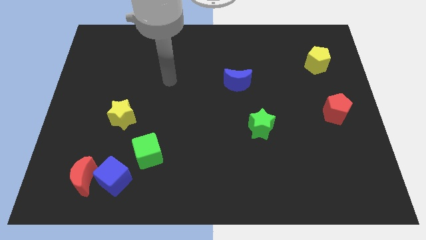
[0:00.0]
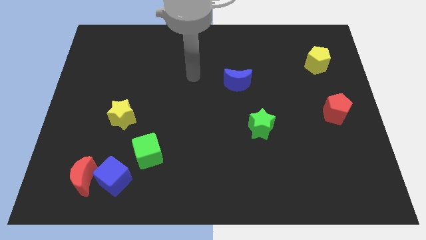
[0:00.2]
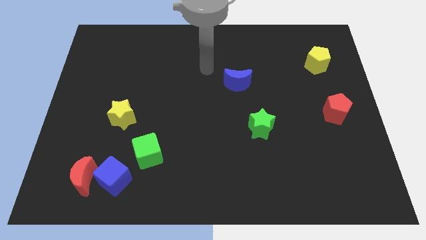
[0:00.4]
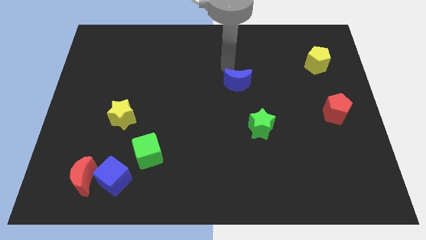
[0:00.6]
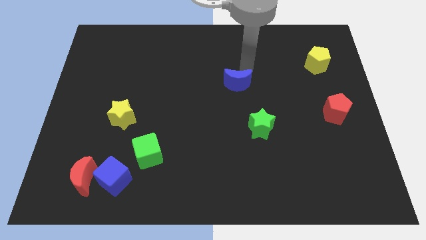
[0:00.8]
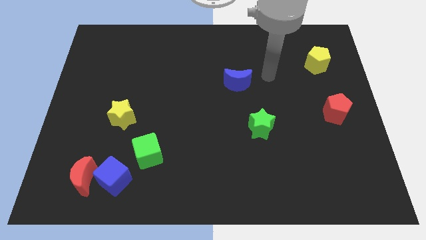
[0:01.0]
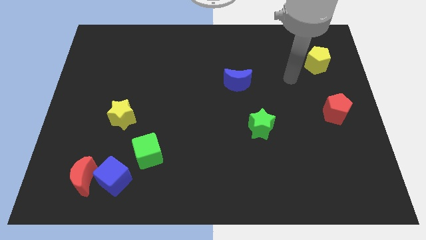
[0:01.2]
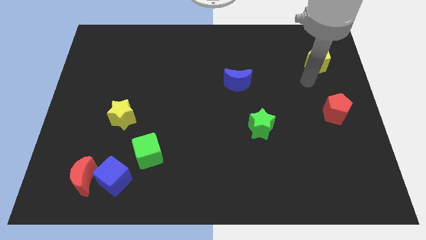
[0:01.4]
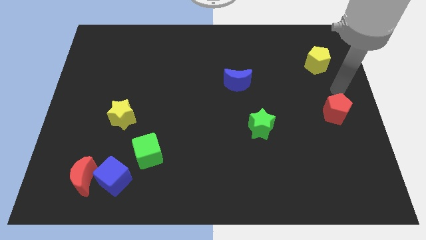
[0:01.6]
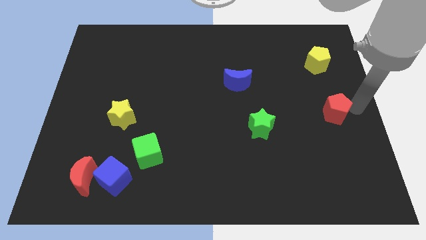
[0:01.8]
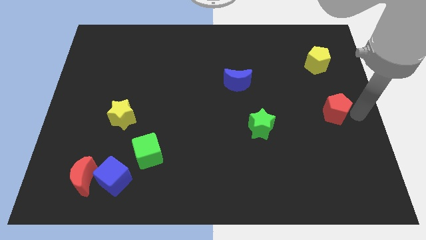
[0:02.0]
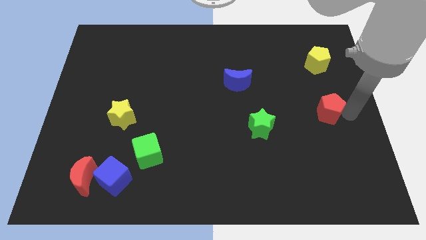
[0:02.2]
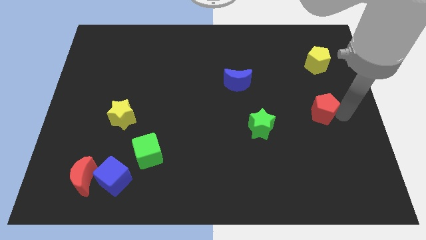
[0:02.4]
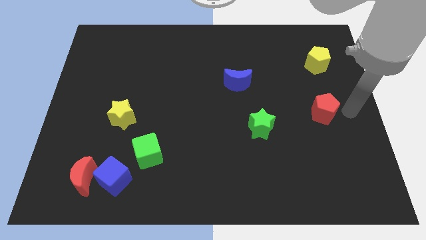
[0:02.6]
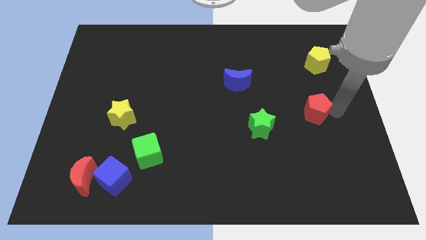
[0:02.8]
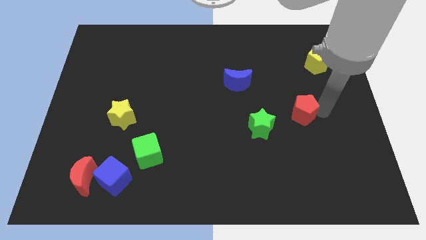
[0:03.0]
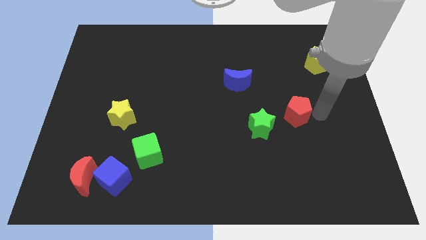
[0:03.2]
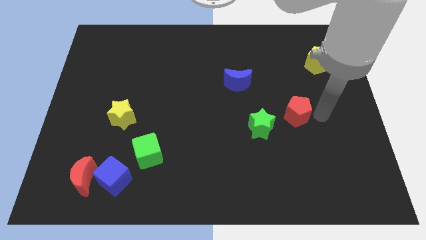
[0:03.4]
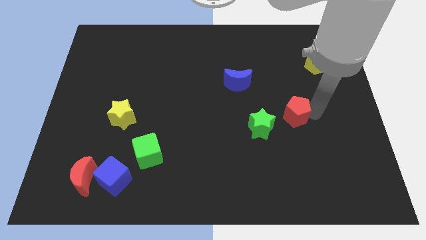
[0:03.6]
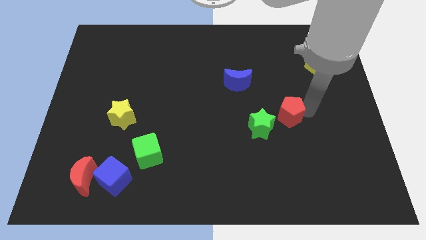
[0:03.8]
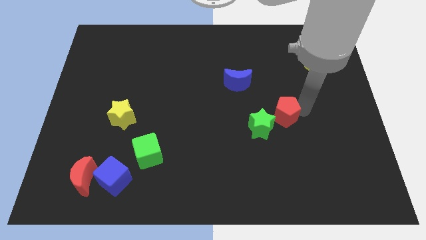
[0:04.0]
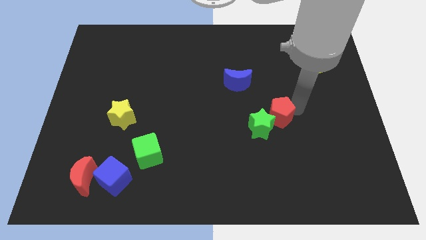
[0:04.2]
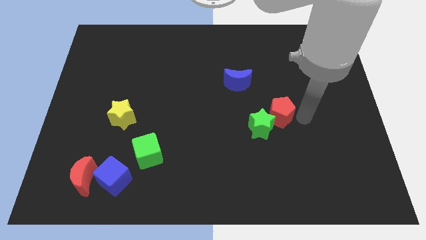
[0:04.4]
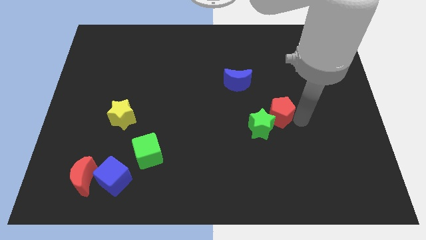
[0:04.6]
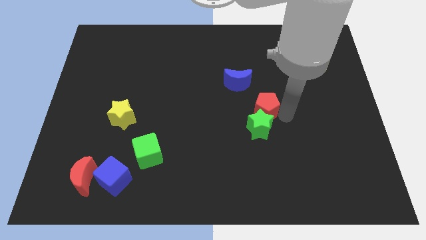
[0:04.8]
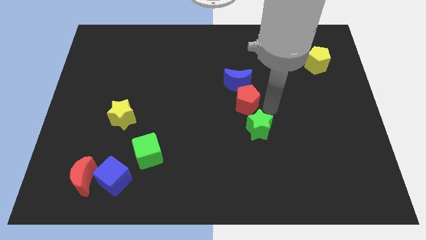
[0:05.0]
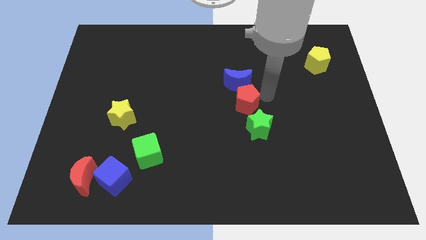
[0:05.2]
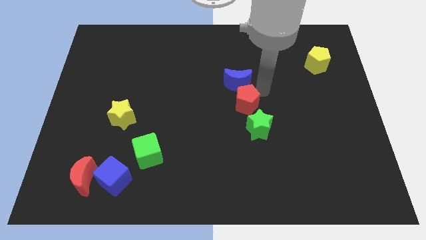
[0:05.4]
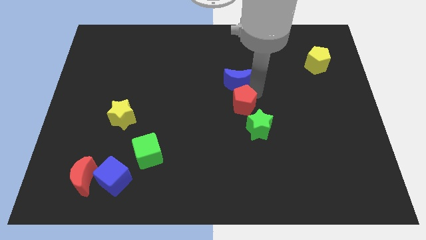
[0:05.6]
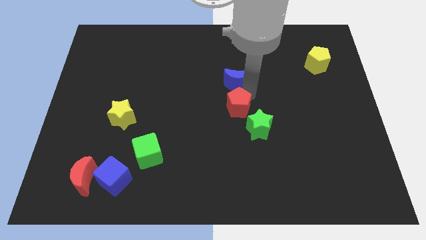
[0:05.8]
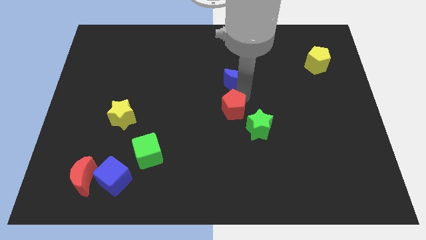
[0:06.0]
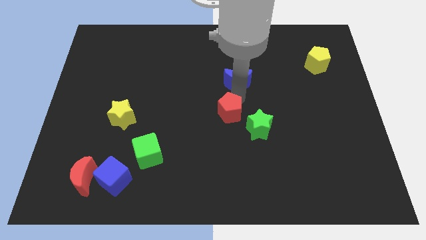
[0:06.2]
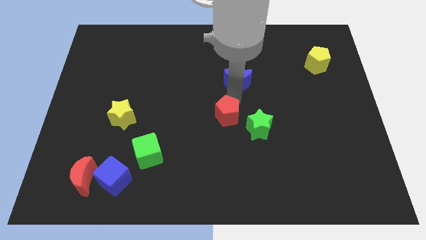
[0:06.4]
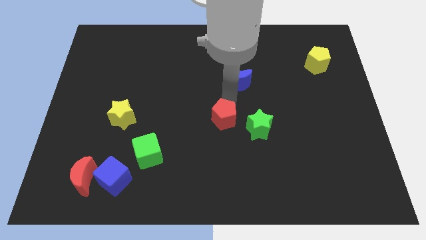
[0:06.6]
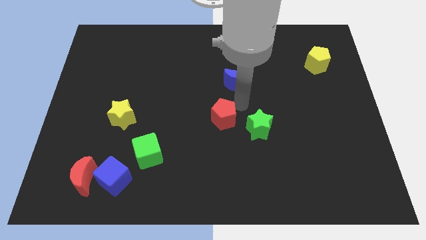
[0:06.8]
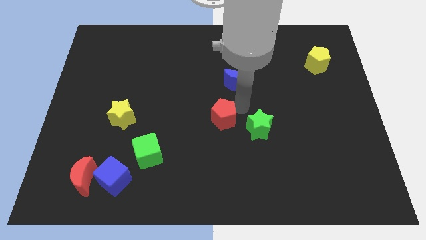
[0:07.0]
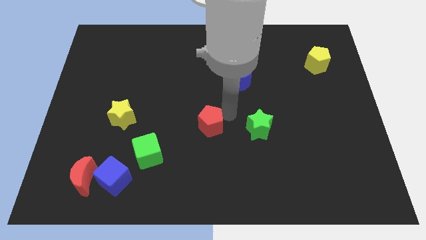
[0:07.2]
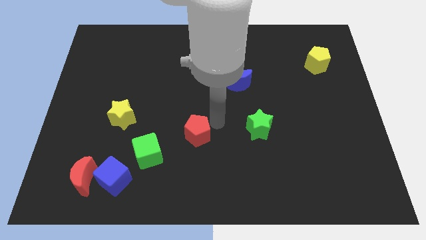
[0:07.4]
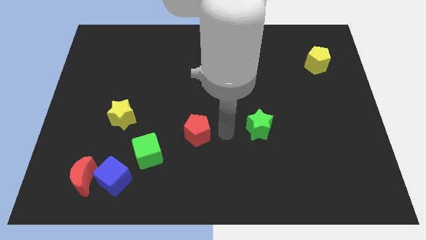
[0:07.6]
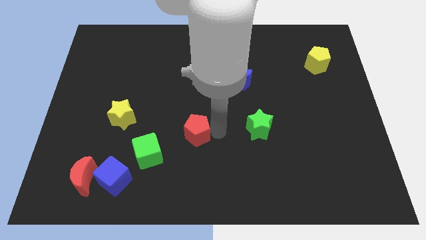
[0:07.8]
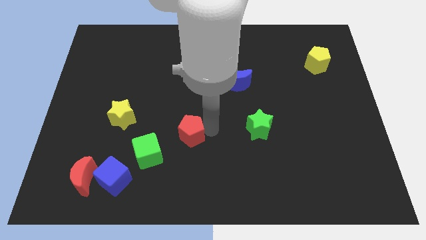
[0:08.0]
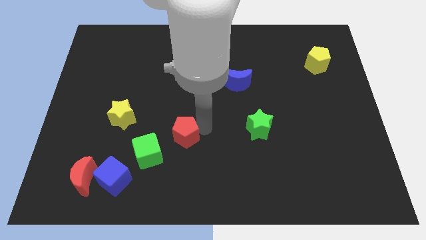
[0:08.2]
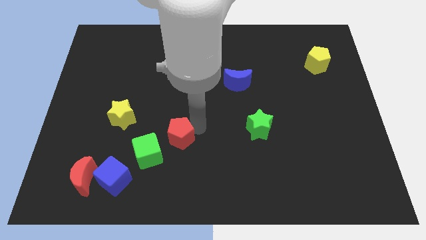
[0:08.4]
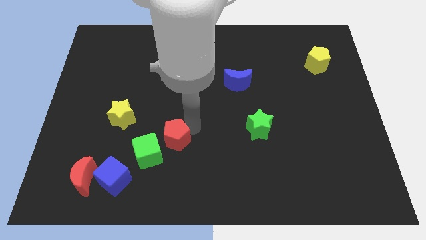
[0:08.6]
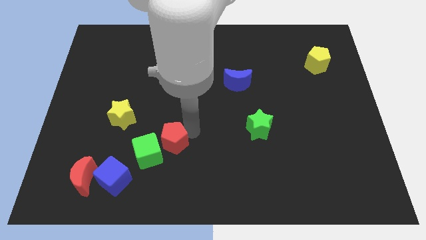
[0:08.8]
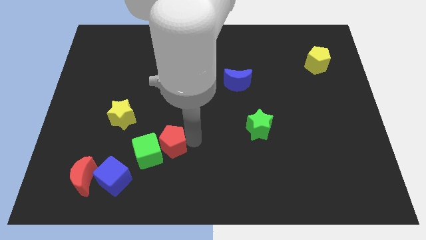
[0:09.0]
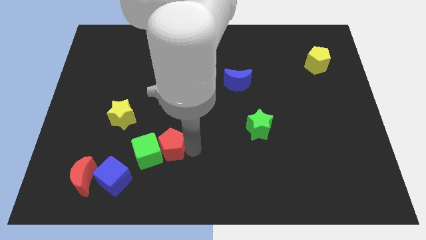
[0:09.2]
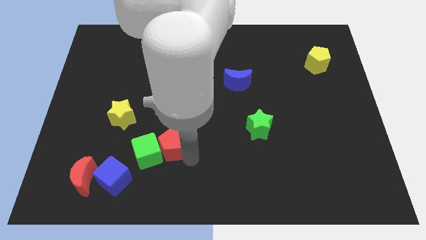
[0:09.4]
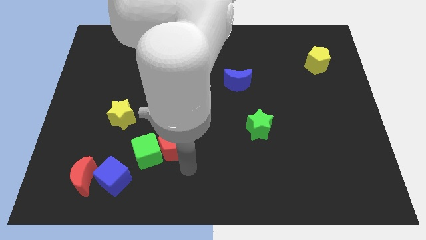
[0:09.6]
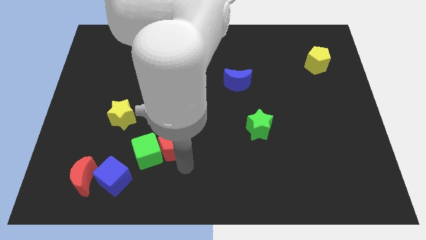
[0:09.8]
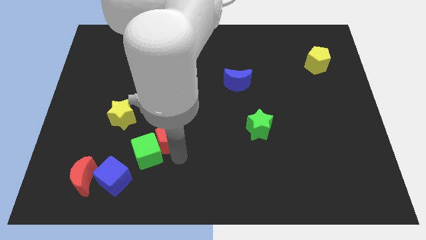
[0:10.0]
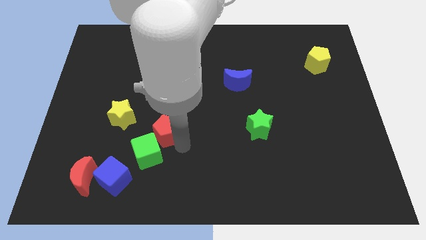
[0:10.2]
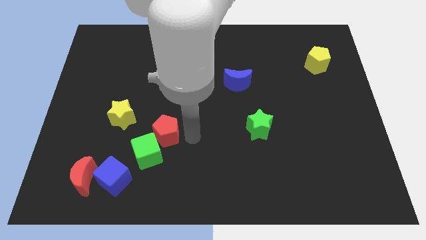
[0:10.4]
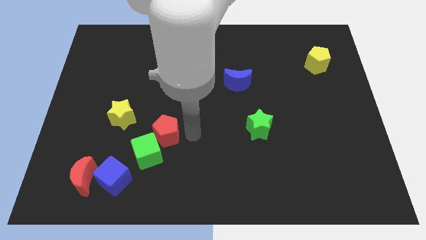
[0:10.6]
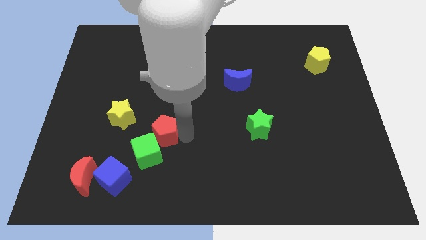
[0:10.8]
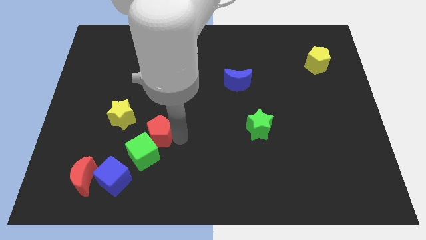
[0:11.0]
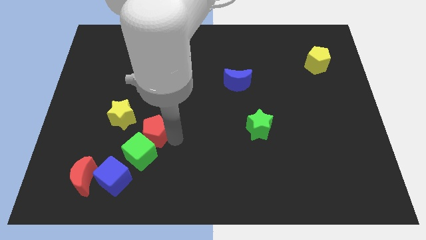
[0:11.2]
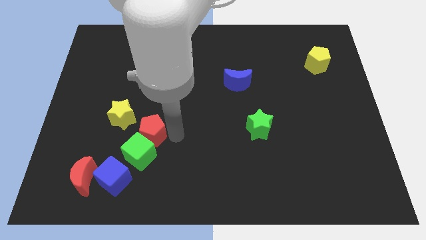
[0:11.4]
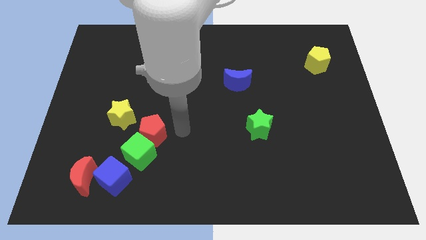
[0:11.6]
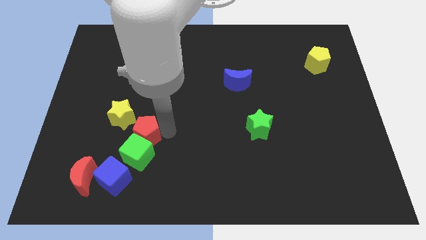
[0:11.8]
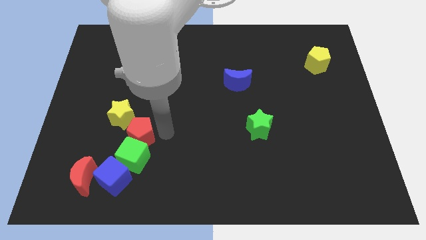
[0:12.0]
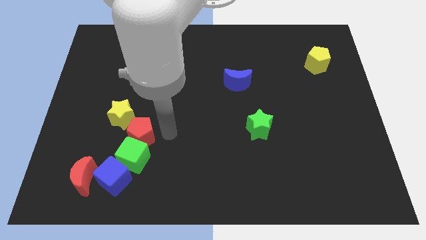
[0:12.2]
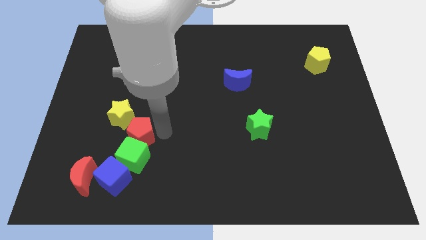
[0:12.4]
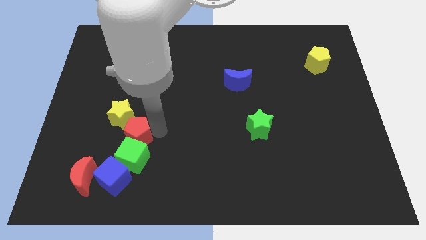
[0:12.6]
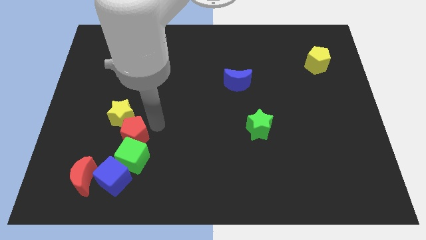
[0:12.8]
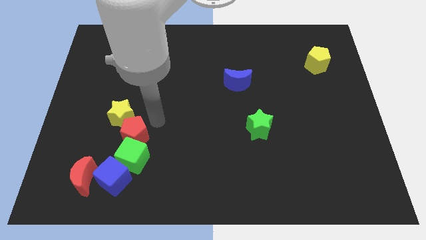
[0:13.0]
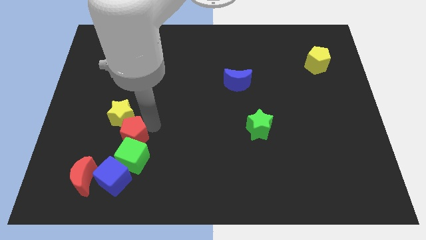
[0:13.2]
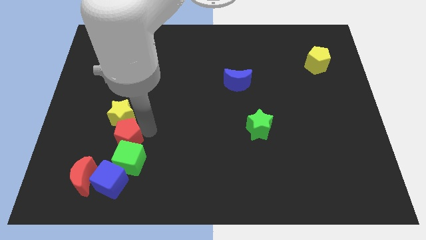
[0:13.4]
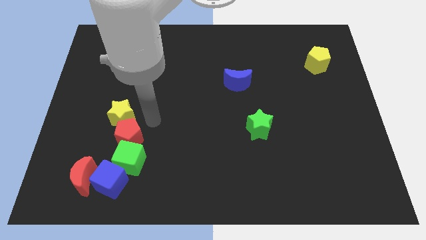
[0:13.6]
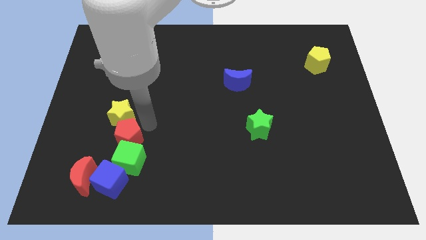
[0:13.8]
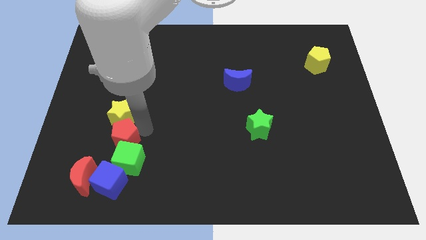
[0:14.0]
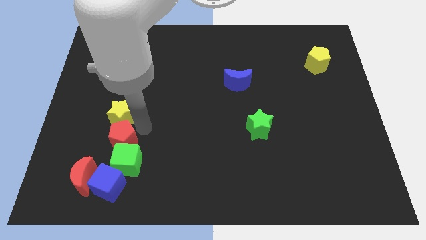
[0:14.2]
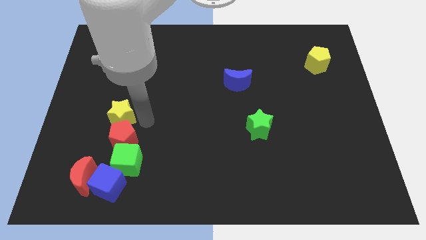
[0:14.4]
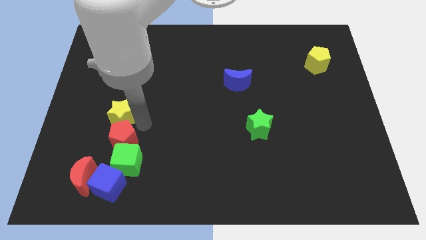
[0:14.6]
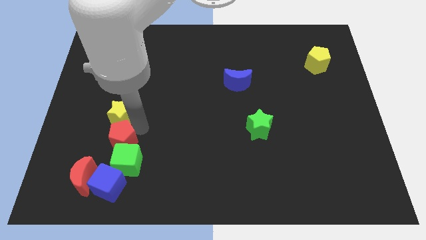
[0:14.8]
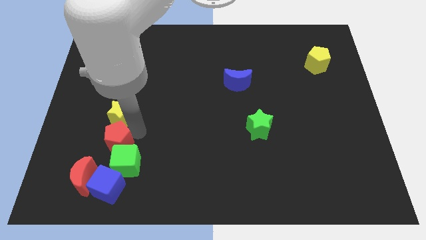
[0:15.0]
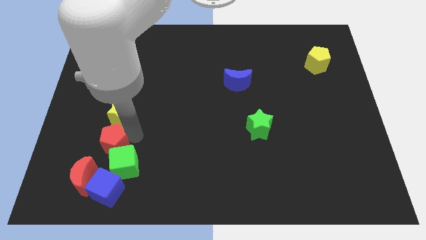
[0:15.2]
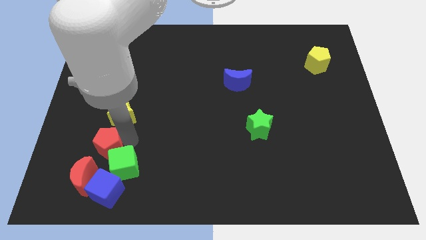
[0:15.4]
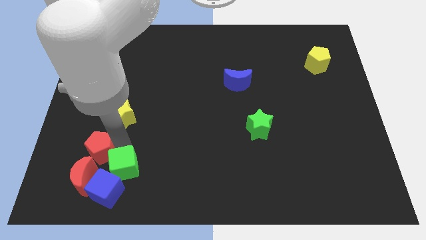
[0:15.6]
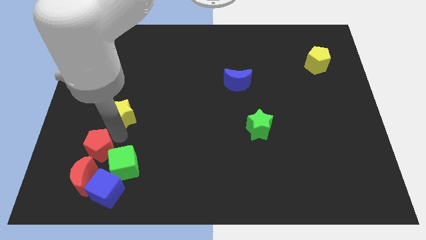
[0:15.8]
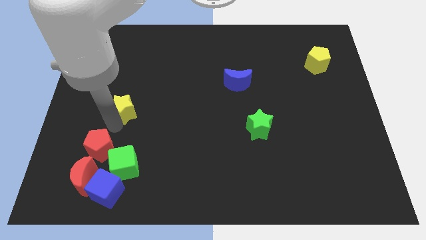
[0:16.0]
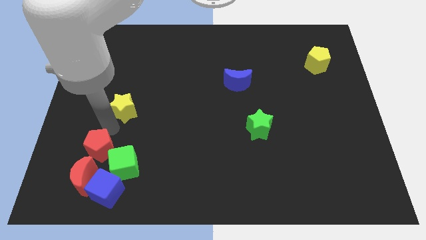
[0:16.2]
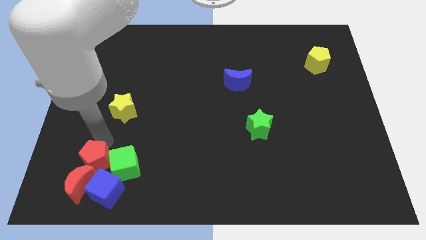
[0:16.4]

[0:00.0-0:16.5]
move the red pentagon to the red moon
